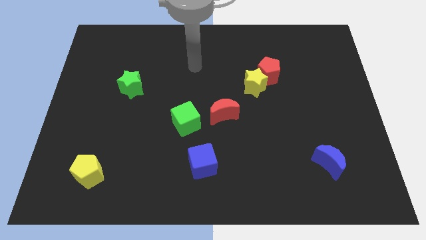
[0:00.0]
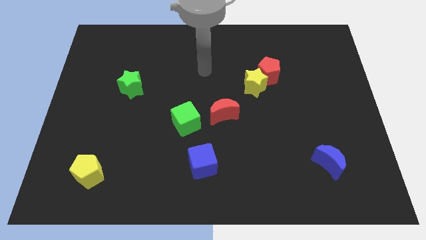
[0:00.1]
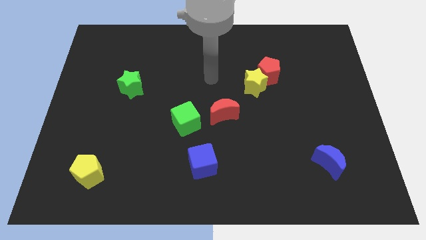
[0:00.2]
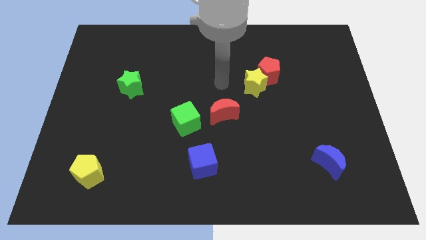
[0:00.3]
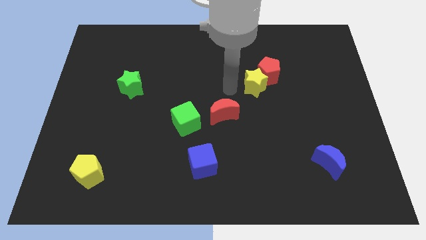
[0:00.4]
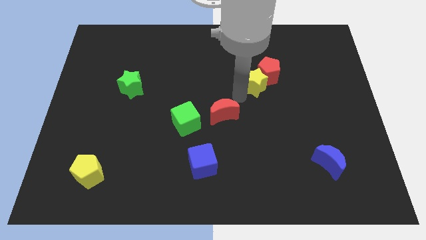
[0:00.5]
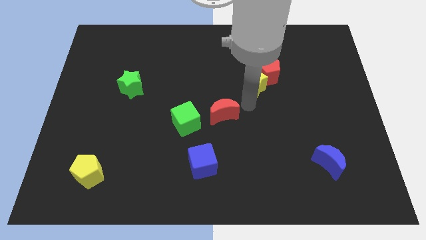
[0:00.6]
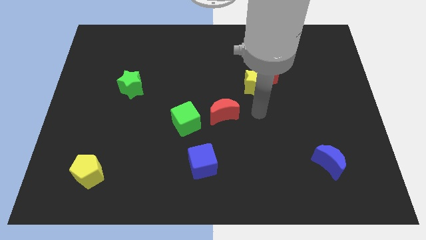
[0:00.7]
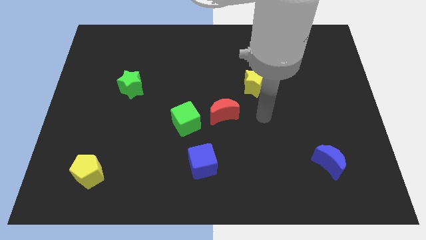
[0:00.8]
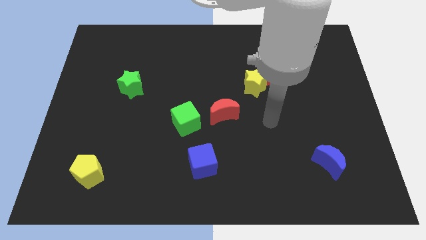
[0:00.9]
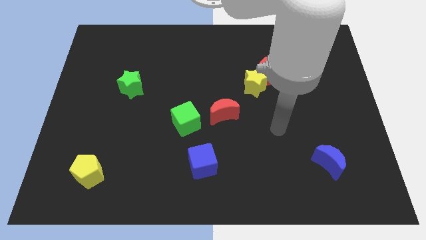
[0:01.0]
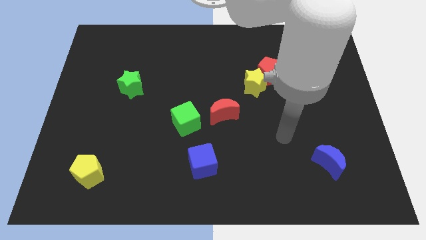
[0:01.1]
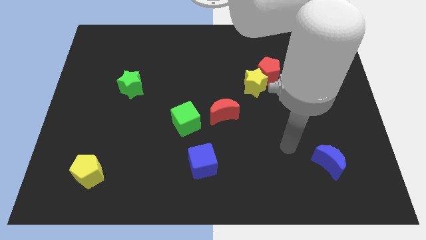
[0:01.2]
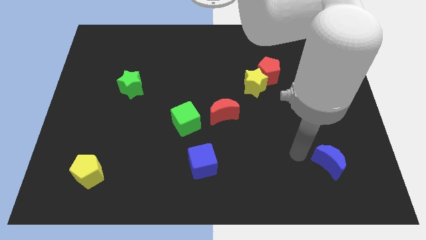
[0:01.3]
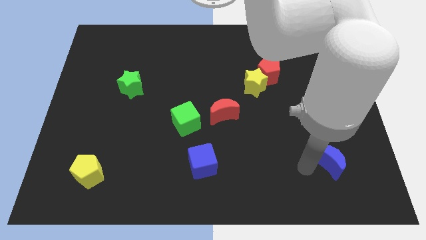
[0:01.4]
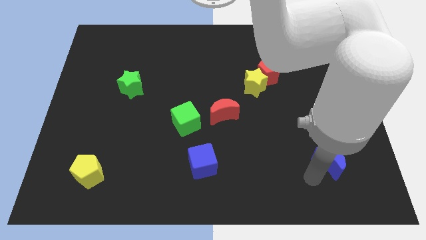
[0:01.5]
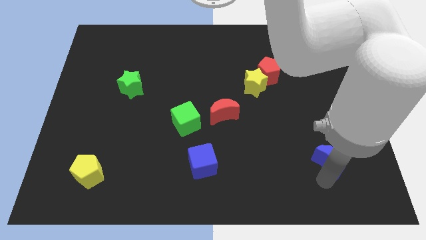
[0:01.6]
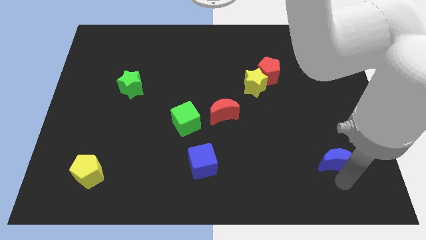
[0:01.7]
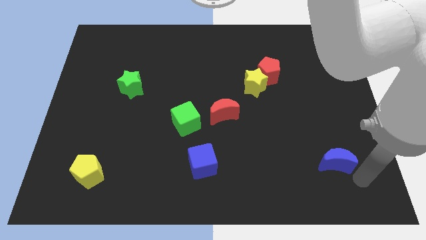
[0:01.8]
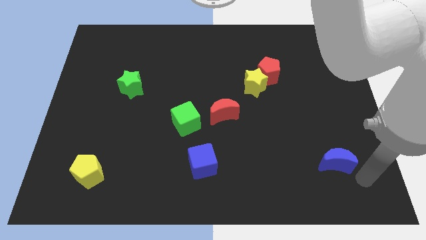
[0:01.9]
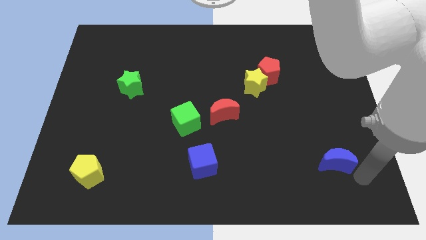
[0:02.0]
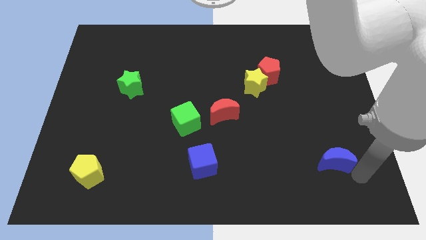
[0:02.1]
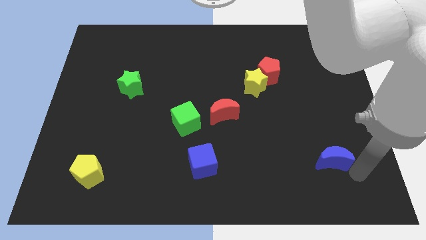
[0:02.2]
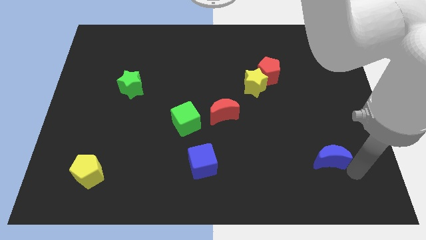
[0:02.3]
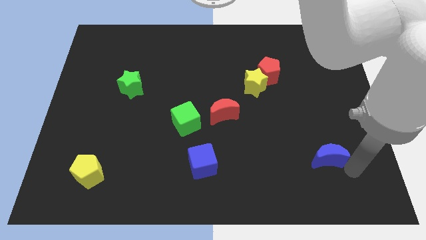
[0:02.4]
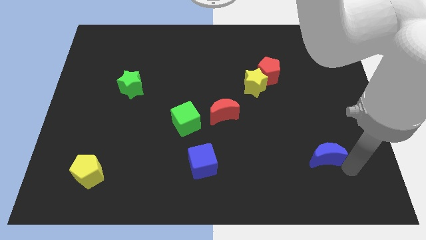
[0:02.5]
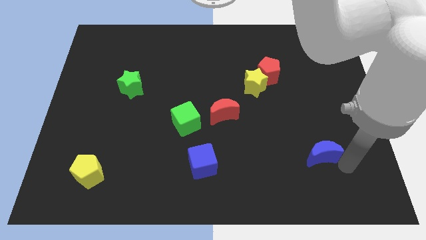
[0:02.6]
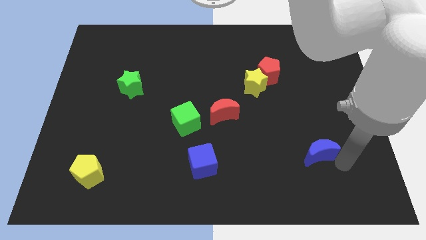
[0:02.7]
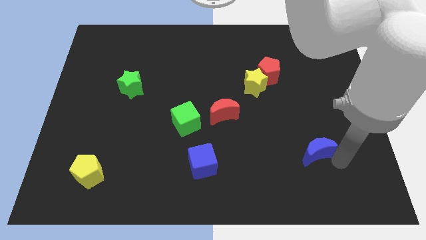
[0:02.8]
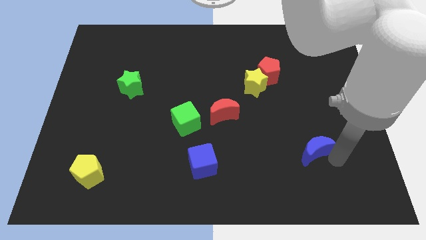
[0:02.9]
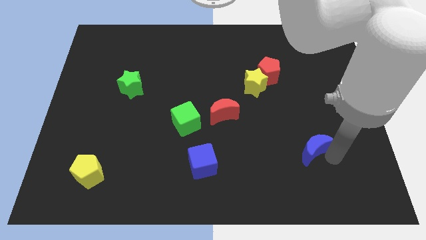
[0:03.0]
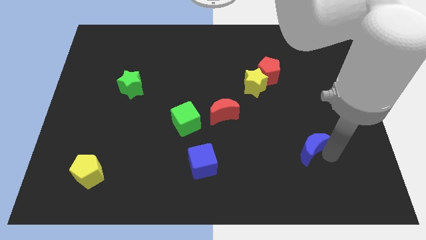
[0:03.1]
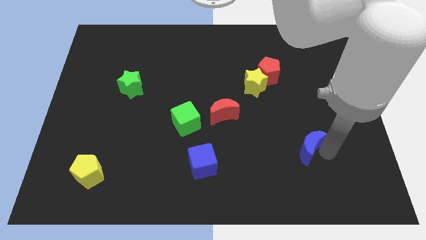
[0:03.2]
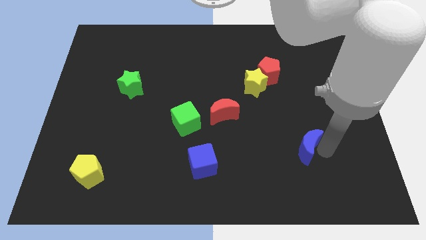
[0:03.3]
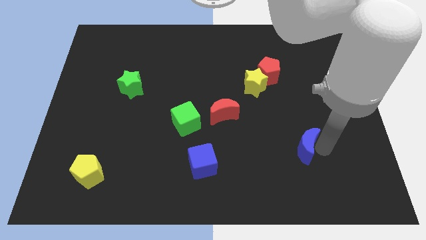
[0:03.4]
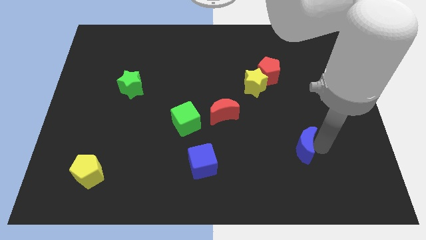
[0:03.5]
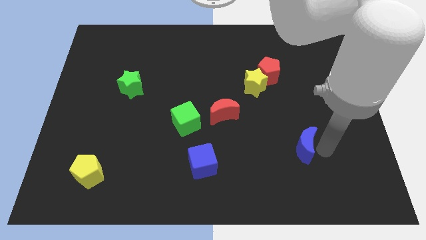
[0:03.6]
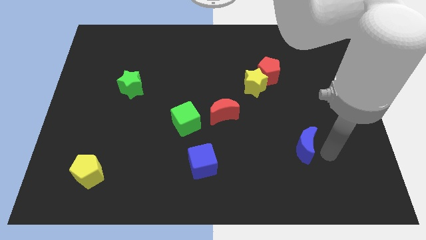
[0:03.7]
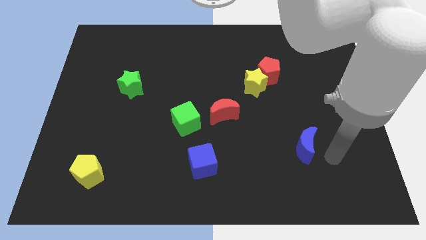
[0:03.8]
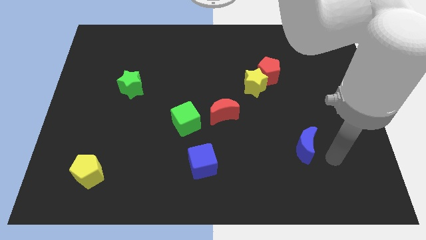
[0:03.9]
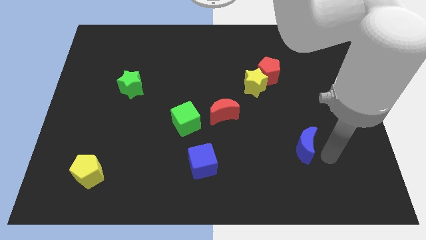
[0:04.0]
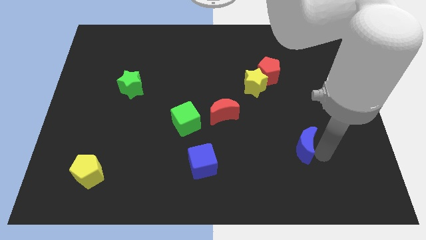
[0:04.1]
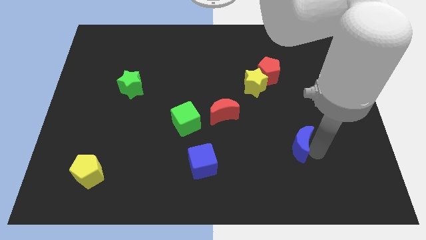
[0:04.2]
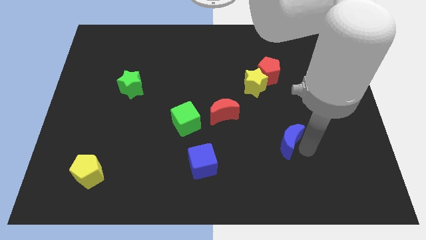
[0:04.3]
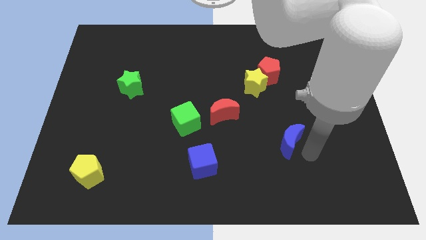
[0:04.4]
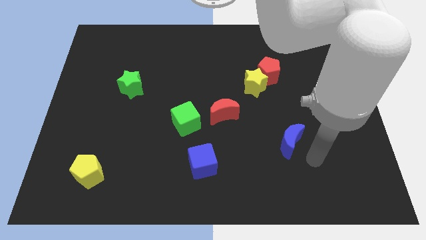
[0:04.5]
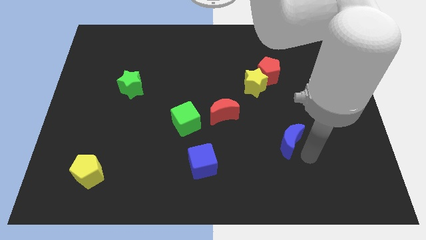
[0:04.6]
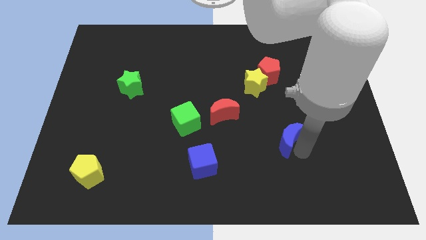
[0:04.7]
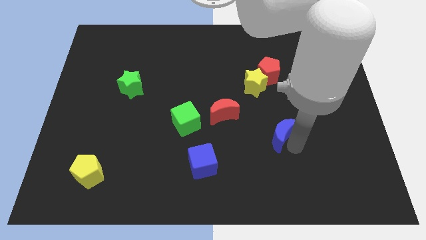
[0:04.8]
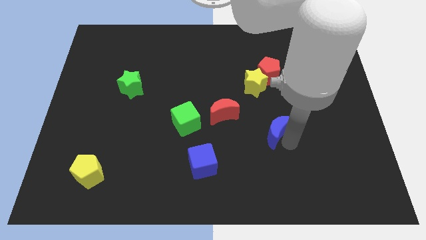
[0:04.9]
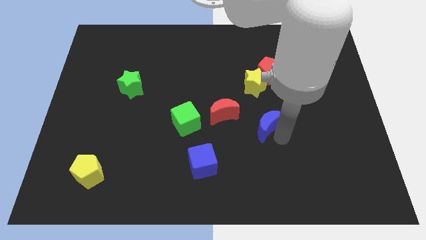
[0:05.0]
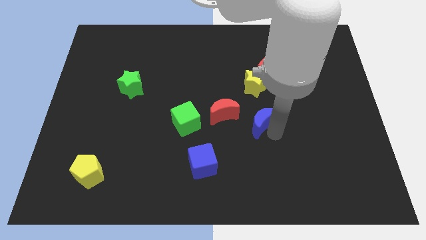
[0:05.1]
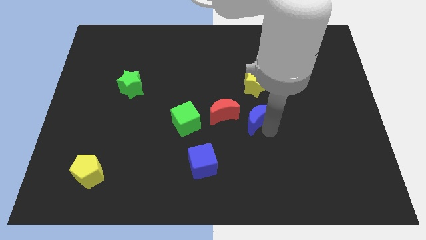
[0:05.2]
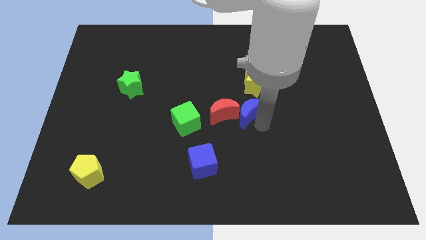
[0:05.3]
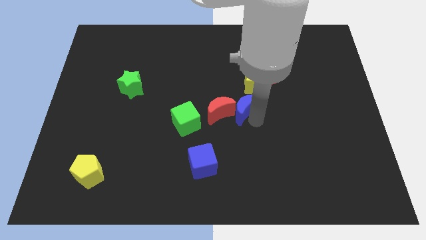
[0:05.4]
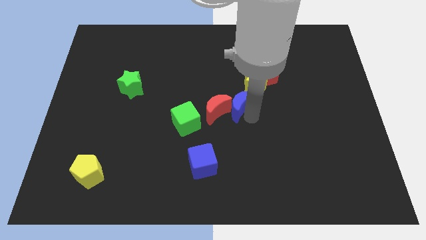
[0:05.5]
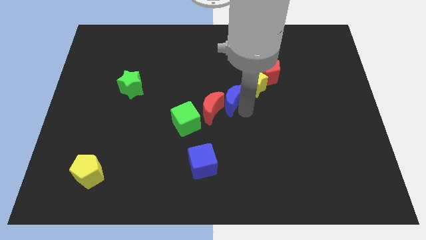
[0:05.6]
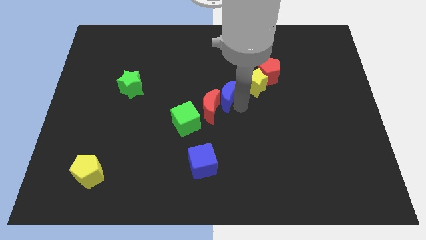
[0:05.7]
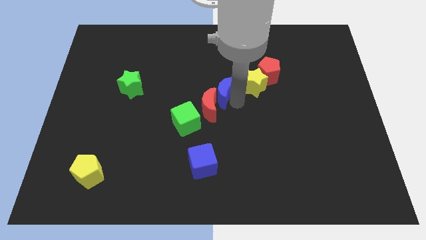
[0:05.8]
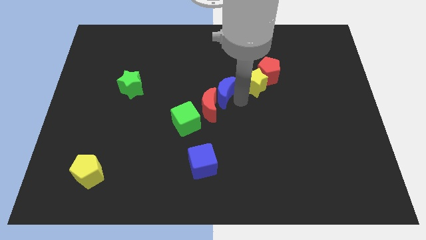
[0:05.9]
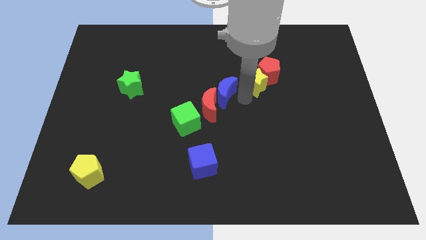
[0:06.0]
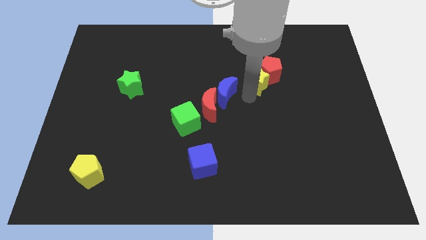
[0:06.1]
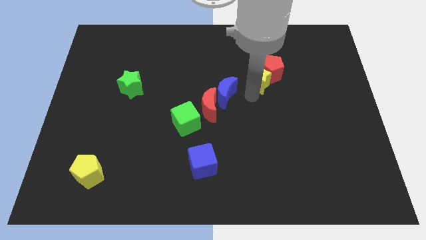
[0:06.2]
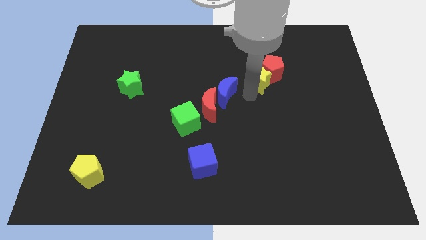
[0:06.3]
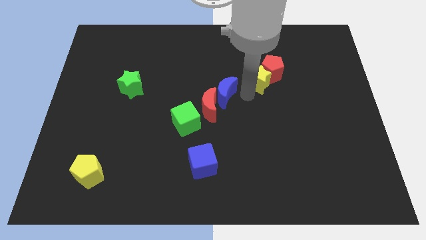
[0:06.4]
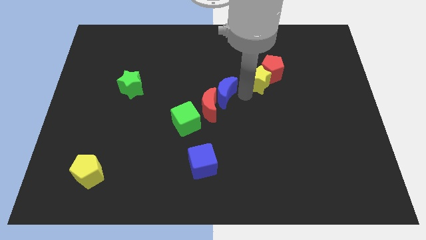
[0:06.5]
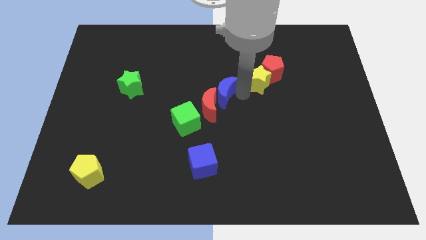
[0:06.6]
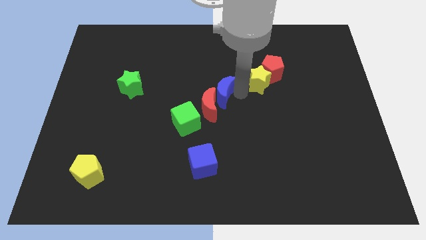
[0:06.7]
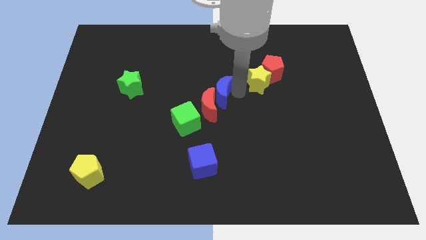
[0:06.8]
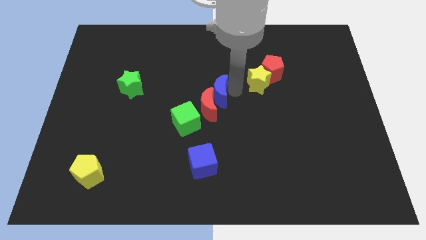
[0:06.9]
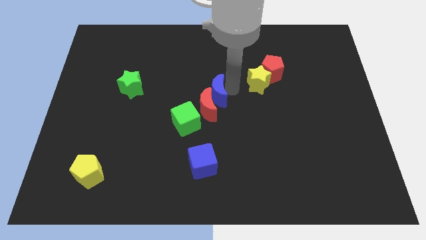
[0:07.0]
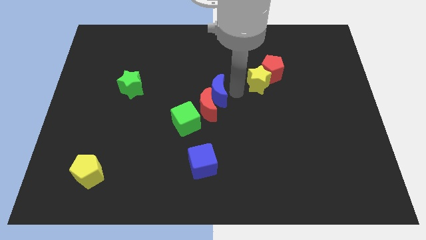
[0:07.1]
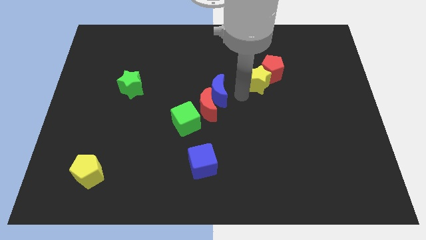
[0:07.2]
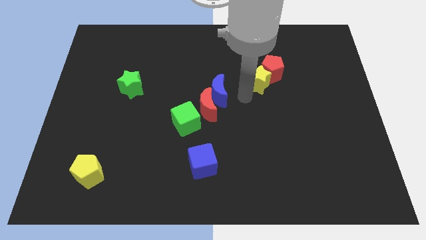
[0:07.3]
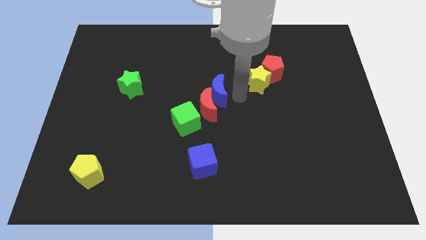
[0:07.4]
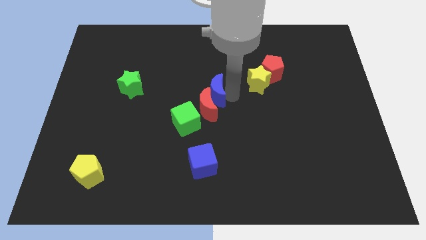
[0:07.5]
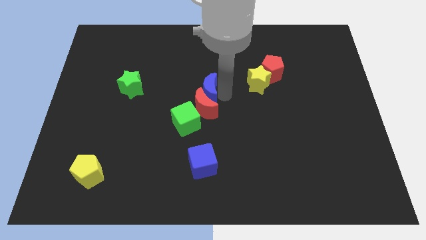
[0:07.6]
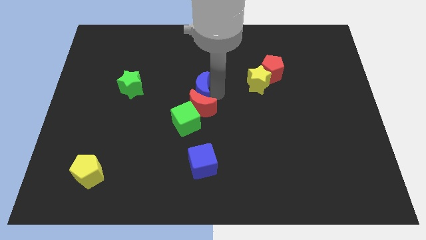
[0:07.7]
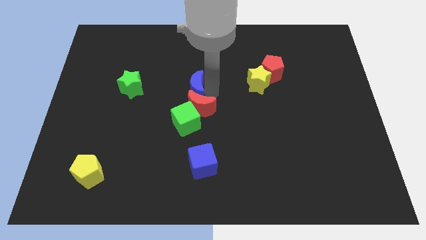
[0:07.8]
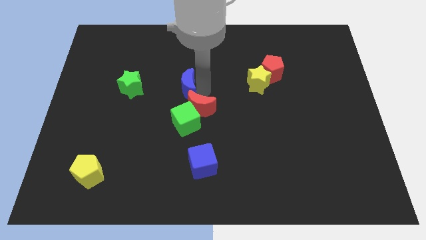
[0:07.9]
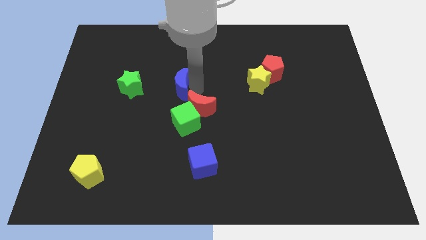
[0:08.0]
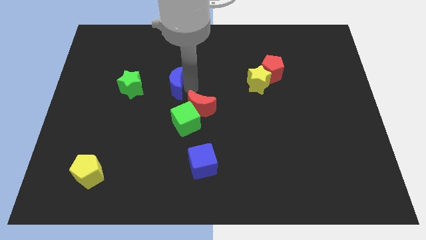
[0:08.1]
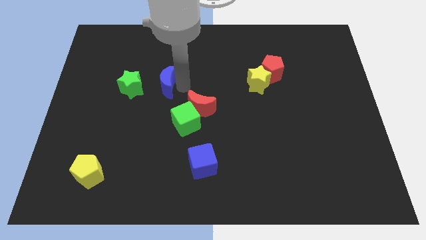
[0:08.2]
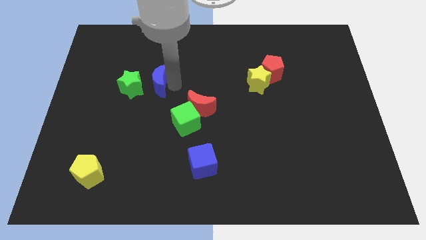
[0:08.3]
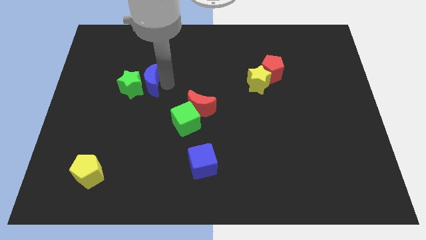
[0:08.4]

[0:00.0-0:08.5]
slide the blue moon towards the green star

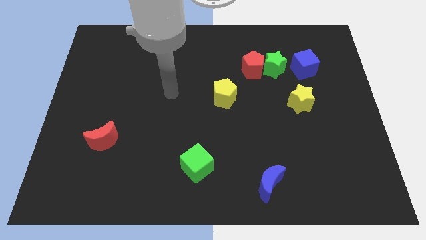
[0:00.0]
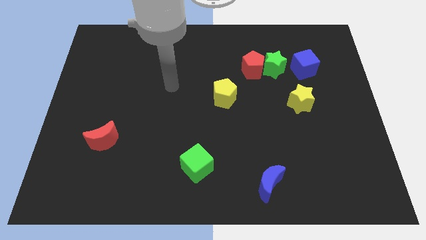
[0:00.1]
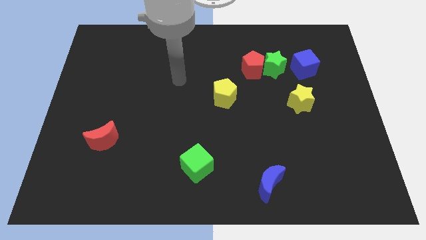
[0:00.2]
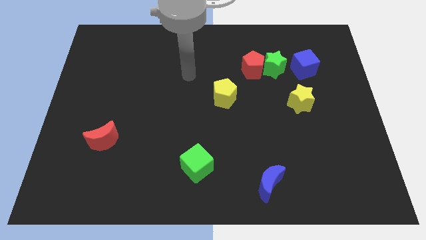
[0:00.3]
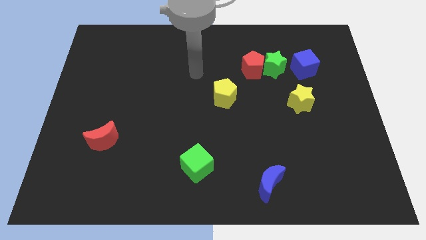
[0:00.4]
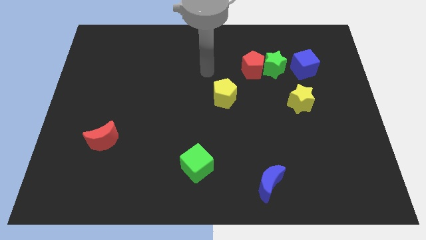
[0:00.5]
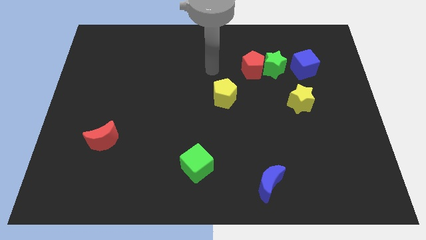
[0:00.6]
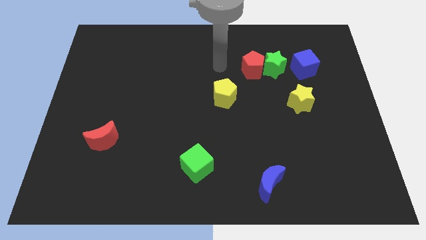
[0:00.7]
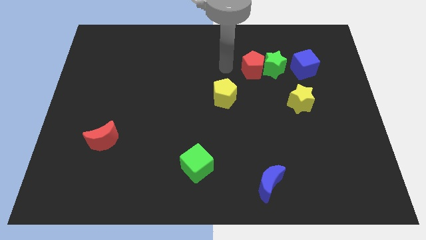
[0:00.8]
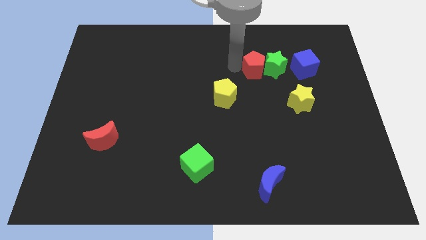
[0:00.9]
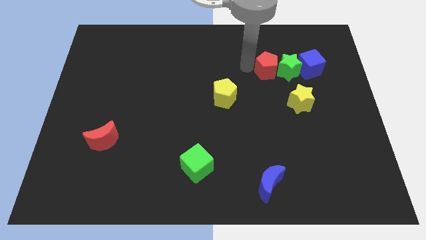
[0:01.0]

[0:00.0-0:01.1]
slide the green star next to the blue cube
